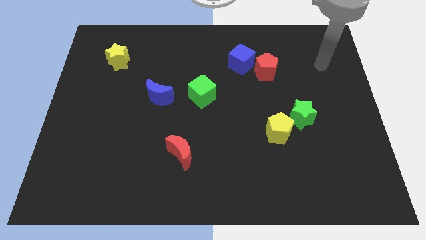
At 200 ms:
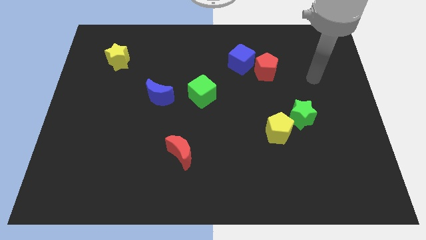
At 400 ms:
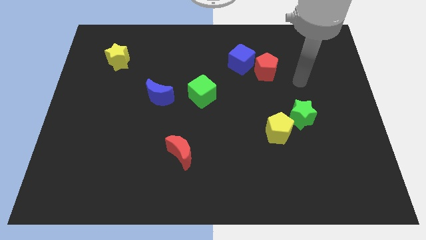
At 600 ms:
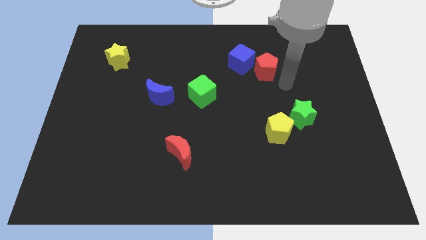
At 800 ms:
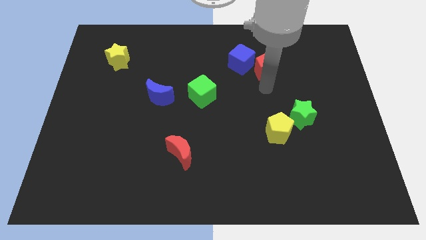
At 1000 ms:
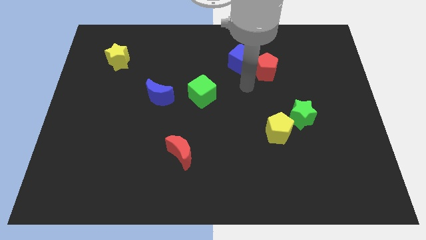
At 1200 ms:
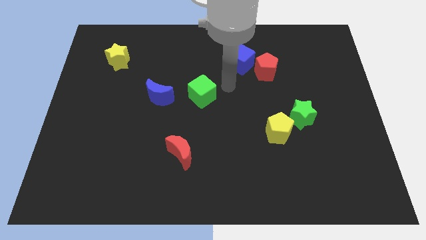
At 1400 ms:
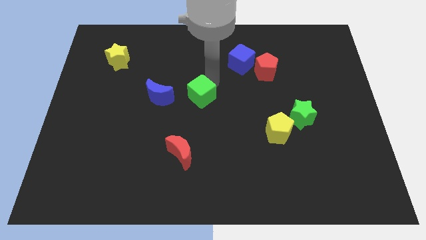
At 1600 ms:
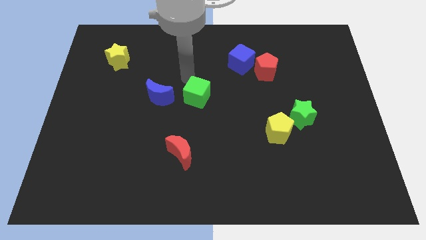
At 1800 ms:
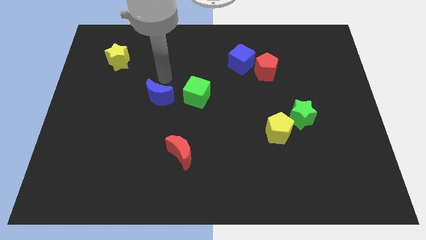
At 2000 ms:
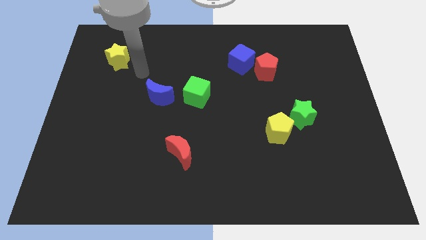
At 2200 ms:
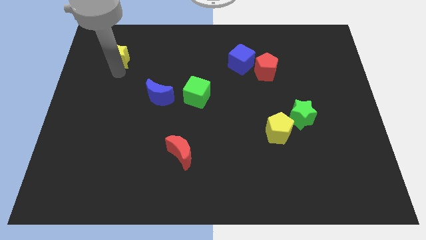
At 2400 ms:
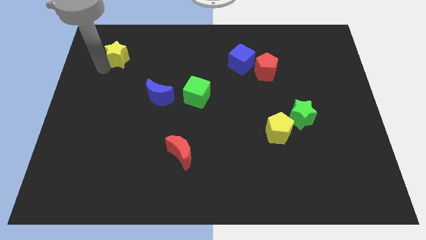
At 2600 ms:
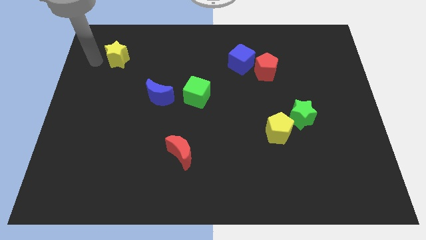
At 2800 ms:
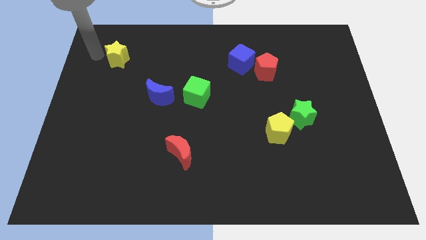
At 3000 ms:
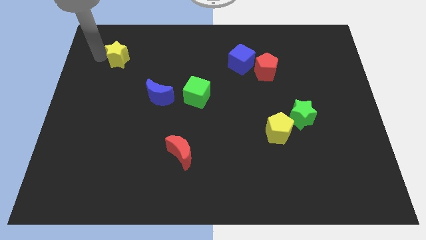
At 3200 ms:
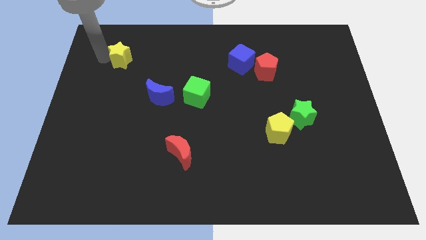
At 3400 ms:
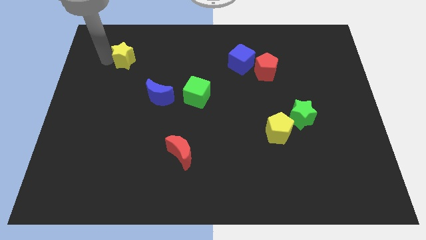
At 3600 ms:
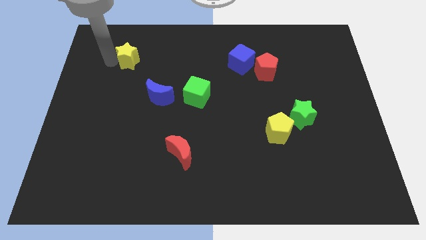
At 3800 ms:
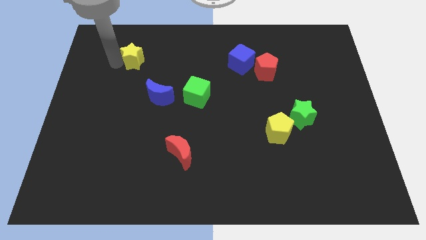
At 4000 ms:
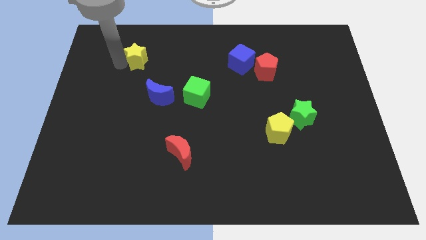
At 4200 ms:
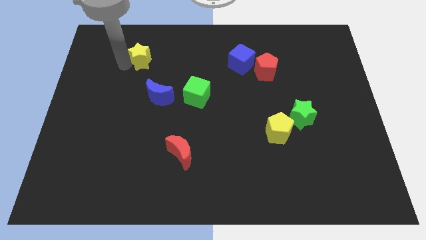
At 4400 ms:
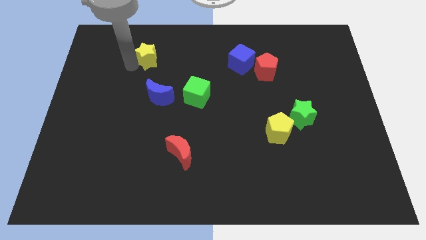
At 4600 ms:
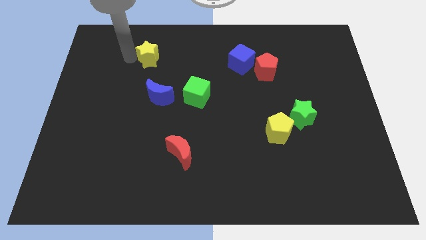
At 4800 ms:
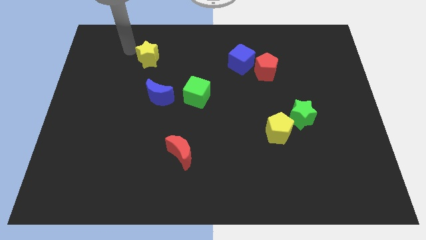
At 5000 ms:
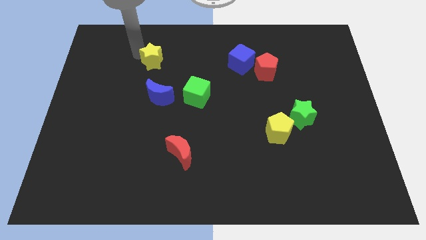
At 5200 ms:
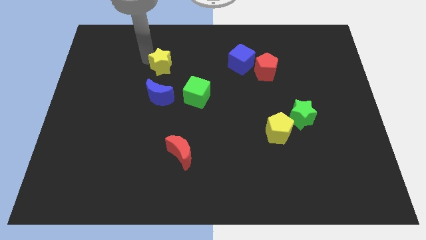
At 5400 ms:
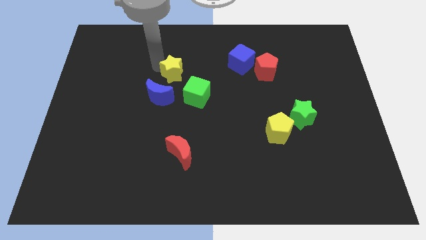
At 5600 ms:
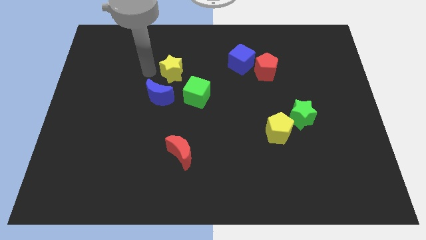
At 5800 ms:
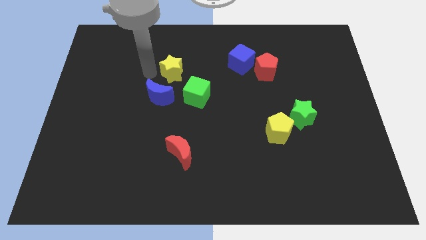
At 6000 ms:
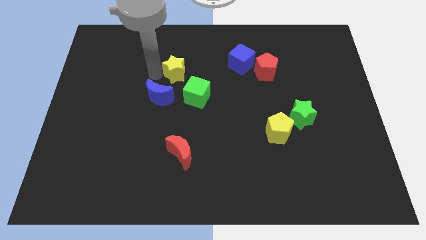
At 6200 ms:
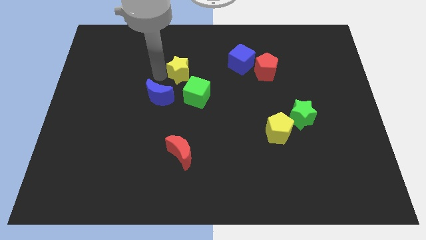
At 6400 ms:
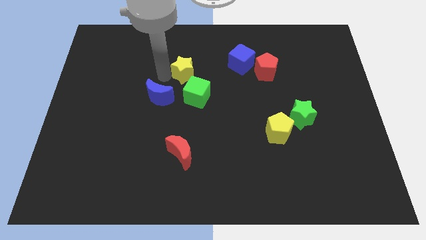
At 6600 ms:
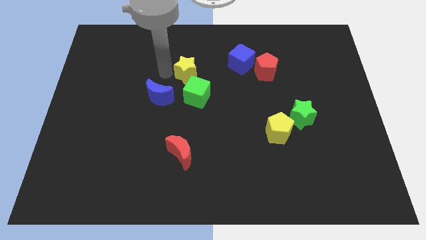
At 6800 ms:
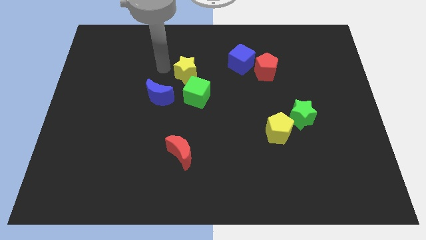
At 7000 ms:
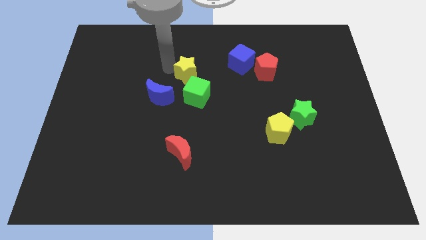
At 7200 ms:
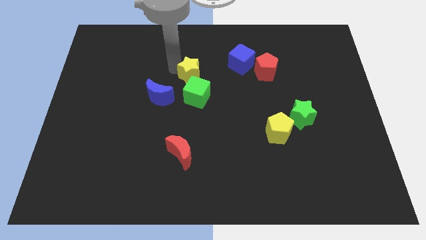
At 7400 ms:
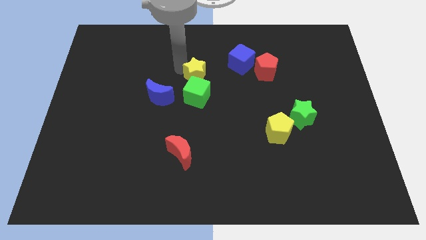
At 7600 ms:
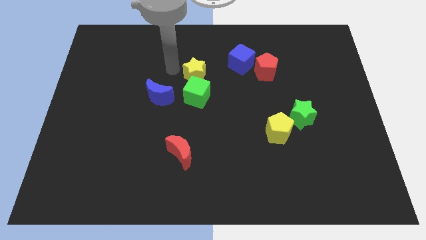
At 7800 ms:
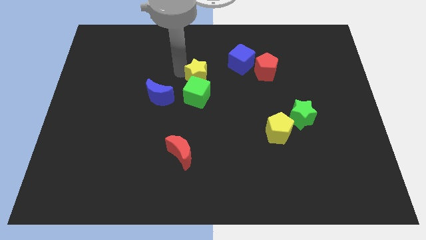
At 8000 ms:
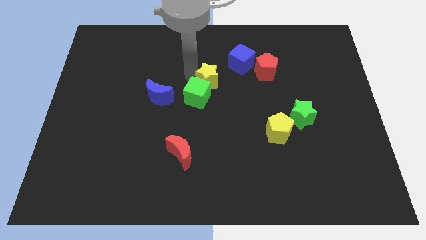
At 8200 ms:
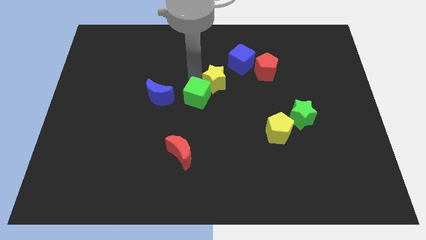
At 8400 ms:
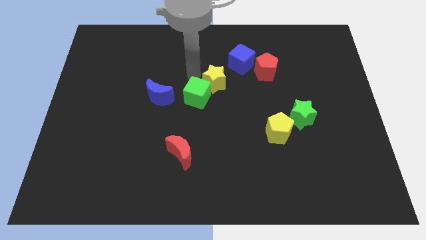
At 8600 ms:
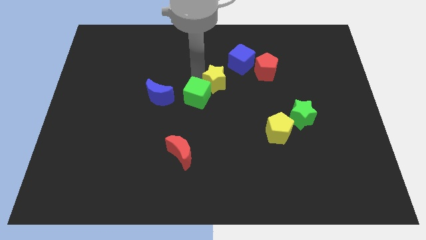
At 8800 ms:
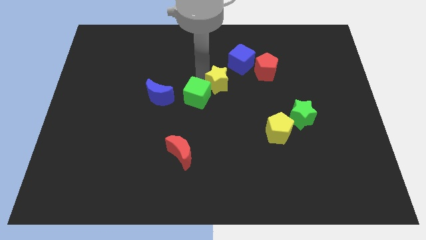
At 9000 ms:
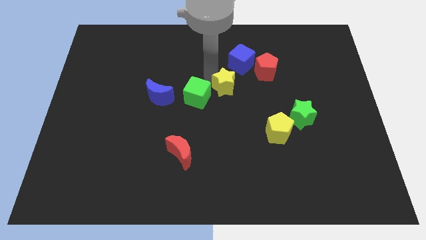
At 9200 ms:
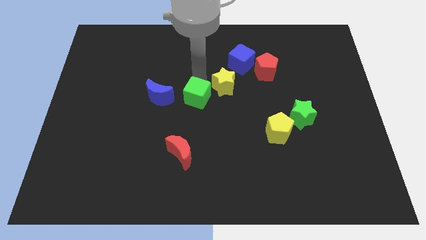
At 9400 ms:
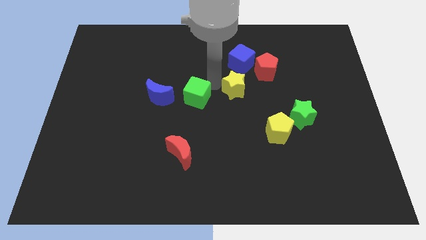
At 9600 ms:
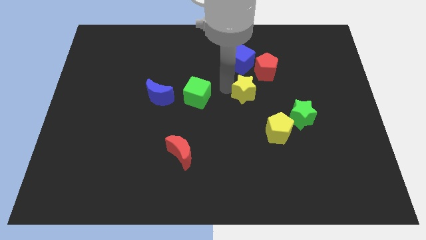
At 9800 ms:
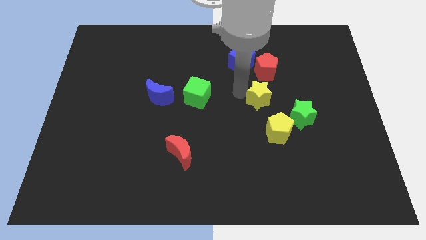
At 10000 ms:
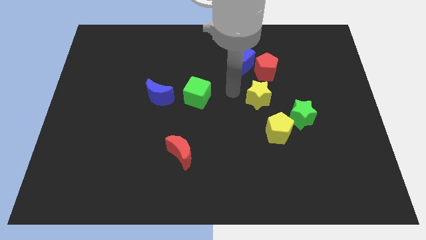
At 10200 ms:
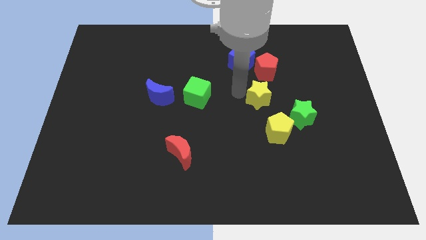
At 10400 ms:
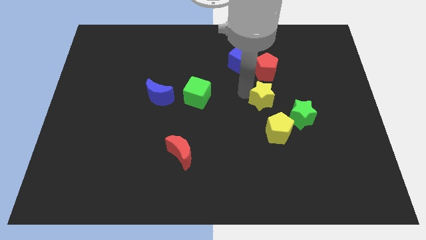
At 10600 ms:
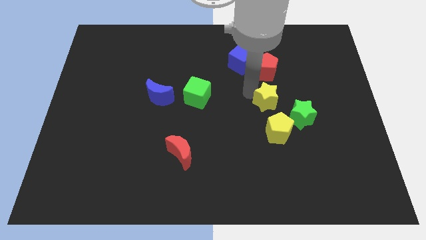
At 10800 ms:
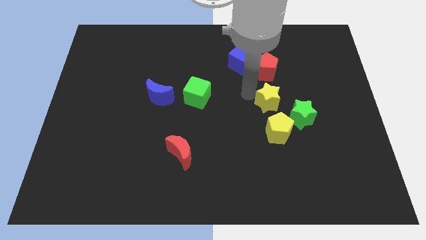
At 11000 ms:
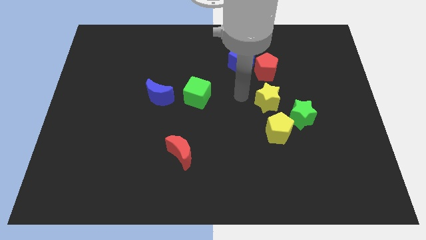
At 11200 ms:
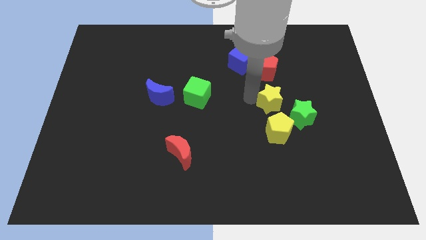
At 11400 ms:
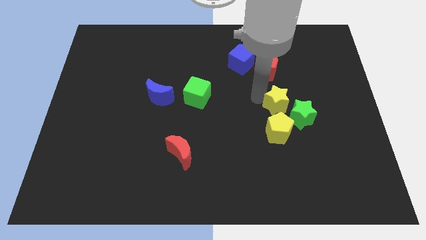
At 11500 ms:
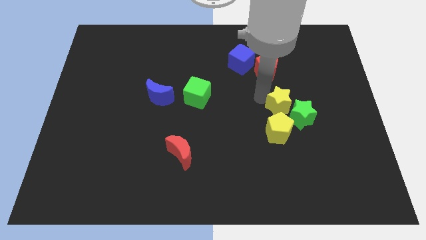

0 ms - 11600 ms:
push the yellow star next to the green star

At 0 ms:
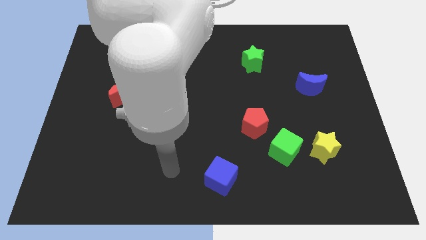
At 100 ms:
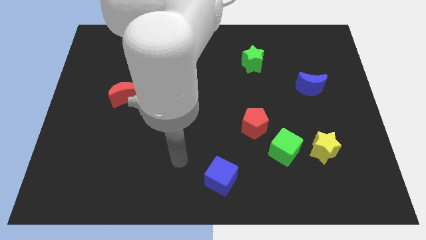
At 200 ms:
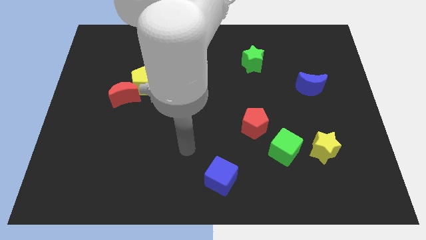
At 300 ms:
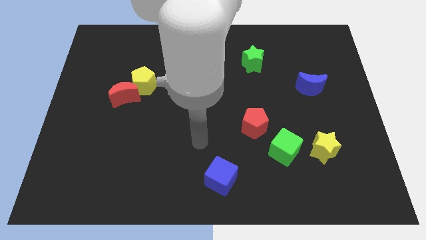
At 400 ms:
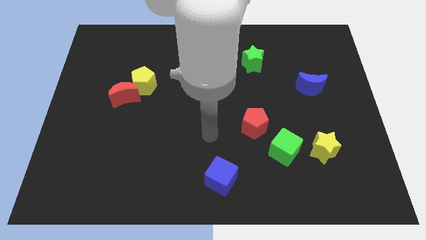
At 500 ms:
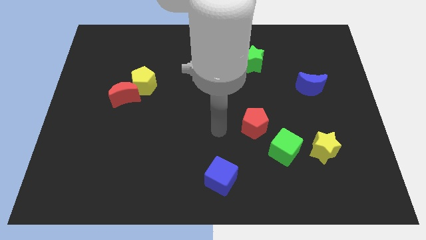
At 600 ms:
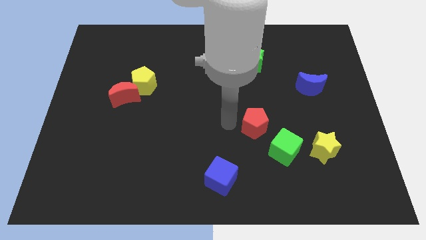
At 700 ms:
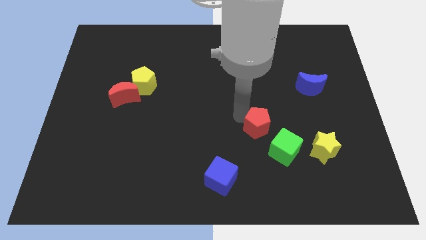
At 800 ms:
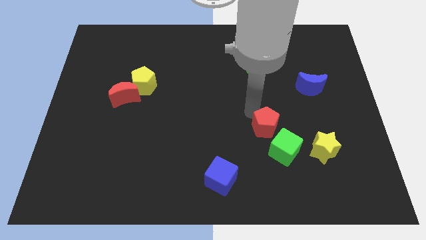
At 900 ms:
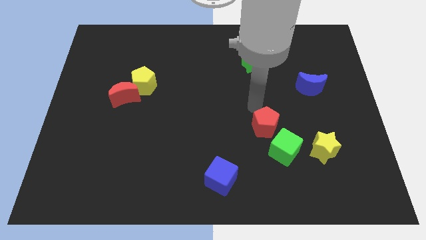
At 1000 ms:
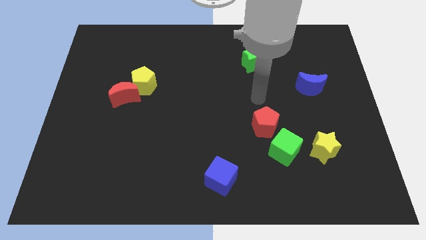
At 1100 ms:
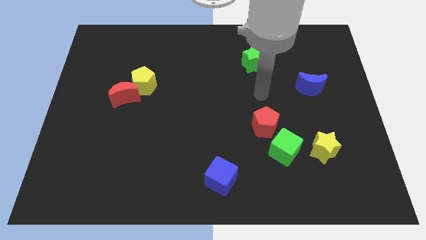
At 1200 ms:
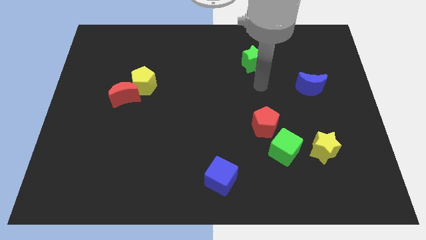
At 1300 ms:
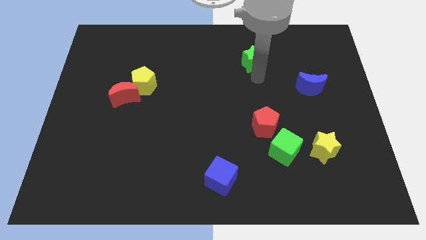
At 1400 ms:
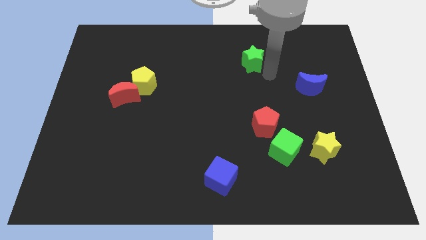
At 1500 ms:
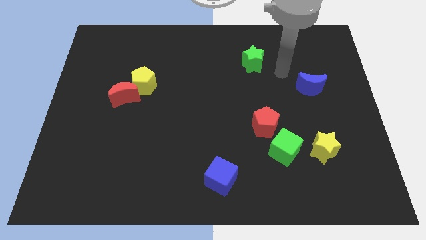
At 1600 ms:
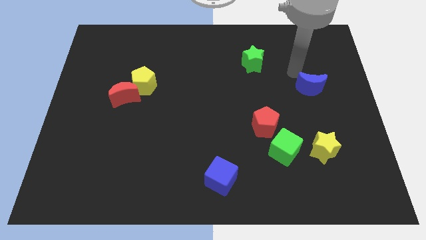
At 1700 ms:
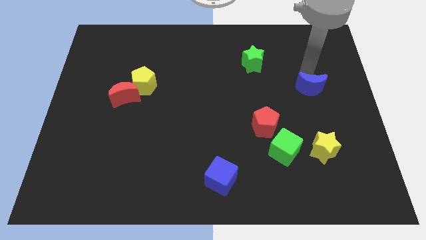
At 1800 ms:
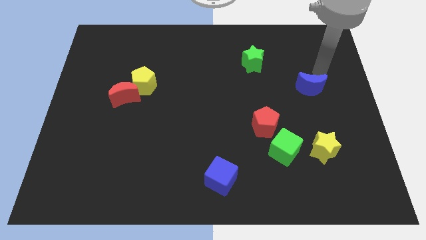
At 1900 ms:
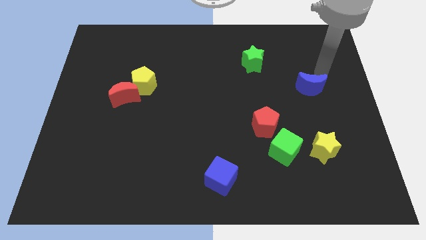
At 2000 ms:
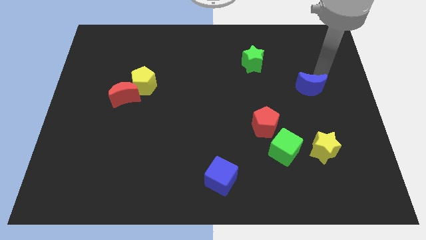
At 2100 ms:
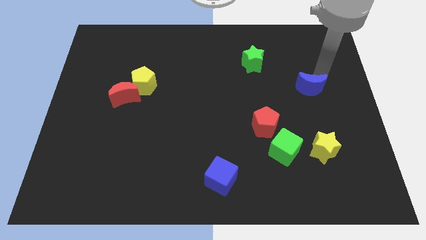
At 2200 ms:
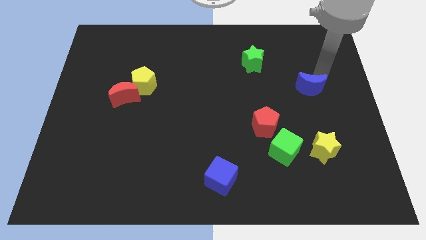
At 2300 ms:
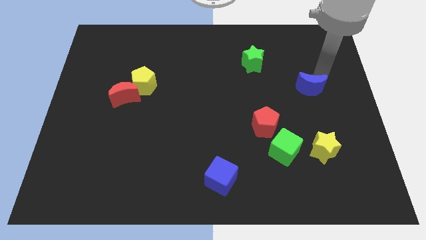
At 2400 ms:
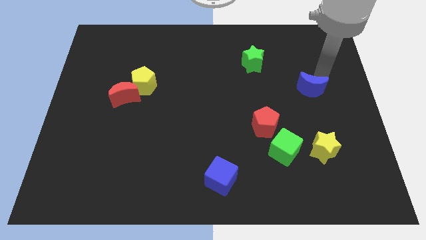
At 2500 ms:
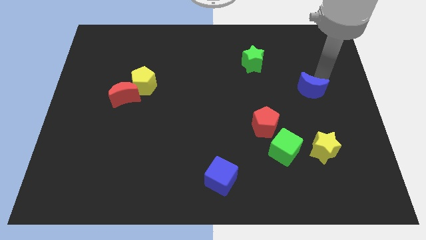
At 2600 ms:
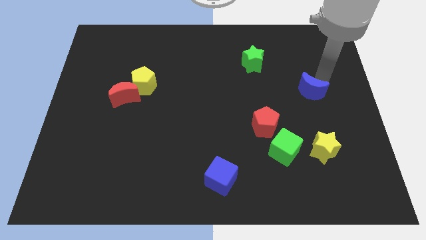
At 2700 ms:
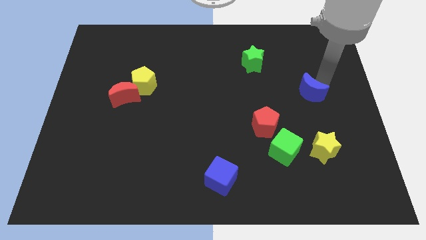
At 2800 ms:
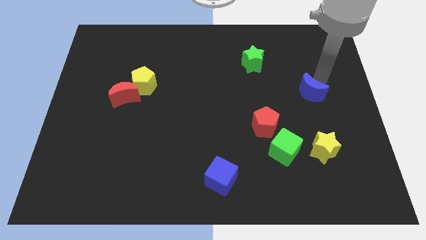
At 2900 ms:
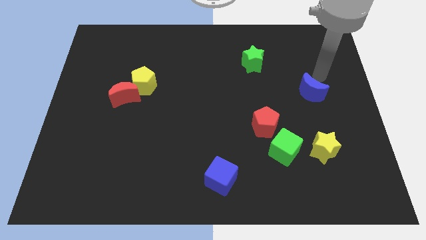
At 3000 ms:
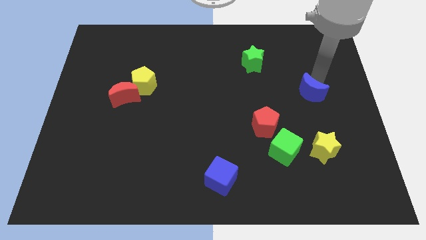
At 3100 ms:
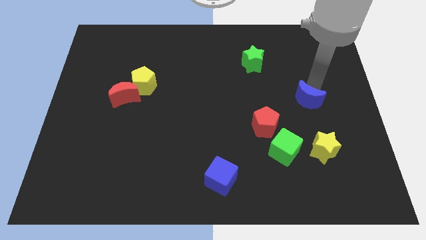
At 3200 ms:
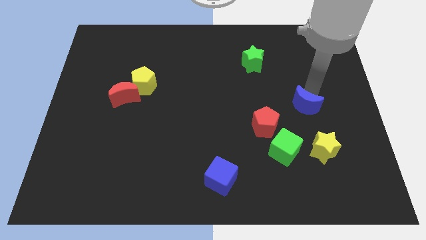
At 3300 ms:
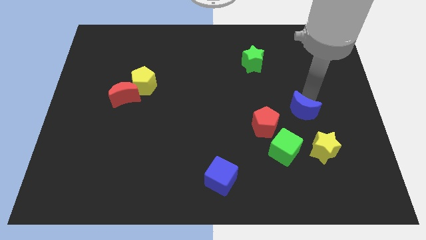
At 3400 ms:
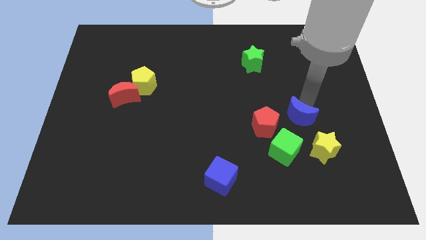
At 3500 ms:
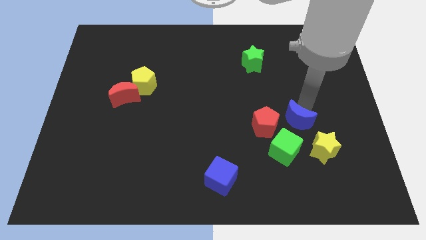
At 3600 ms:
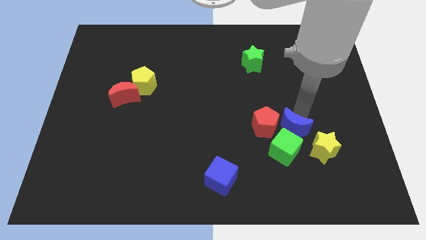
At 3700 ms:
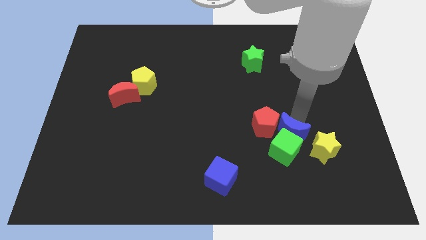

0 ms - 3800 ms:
push the blue moon towards the green cube
